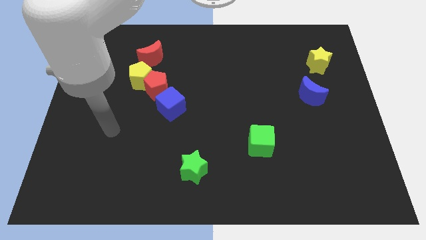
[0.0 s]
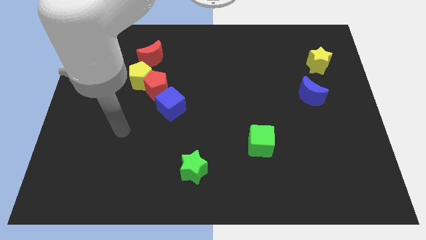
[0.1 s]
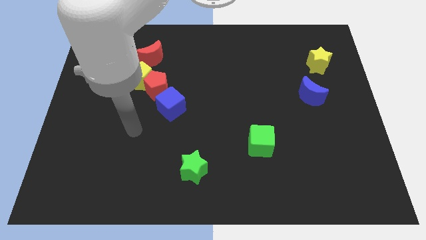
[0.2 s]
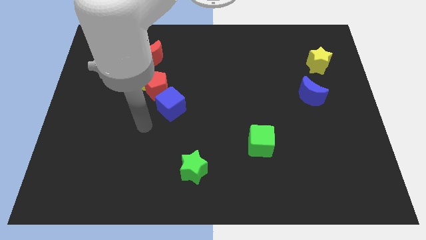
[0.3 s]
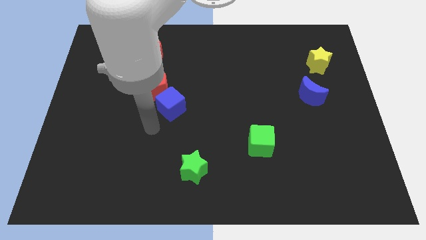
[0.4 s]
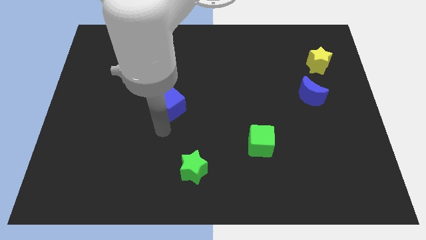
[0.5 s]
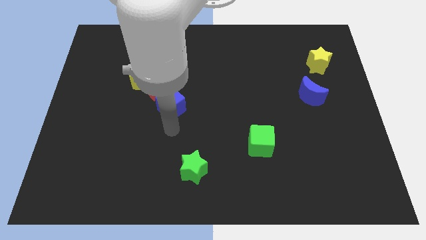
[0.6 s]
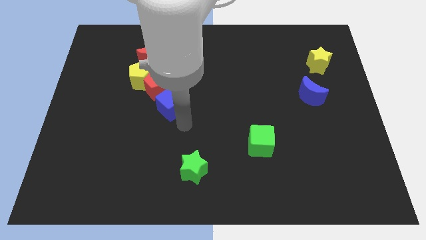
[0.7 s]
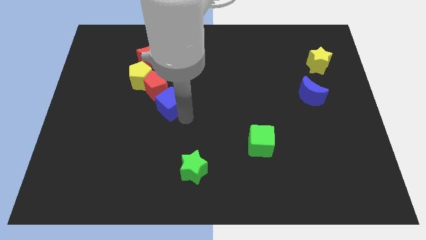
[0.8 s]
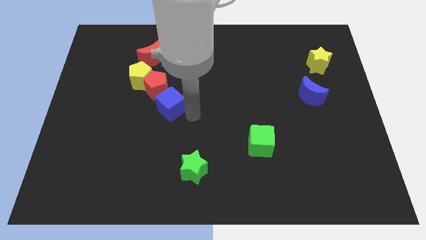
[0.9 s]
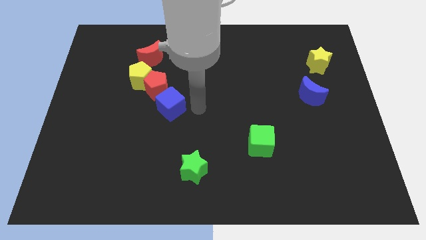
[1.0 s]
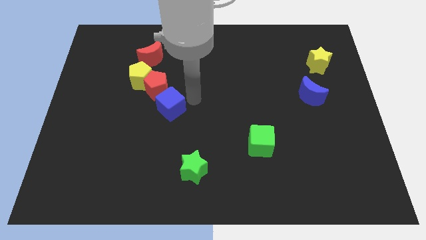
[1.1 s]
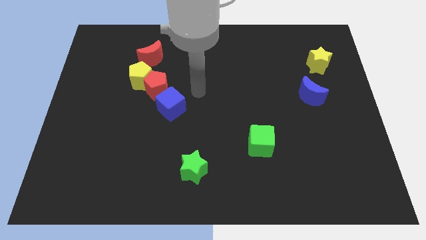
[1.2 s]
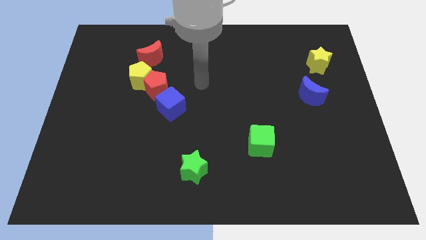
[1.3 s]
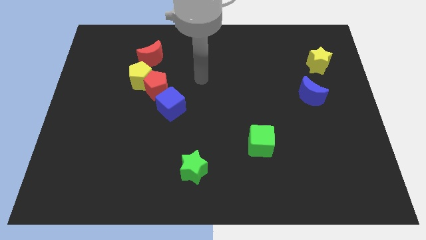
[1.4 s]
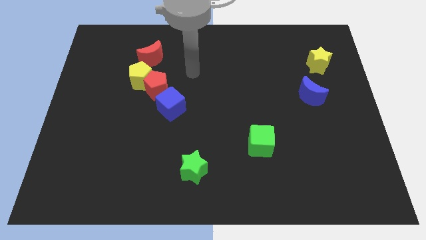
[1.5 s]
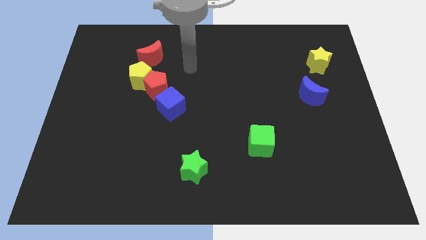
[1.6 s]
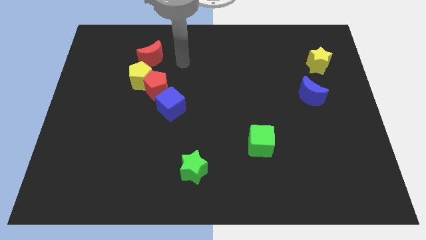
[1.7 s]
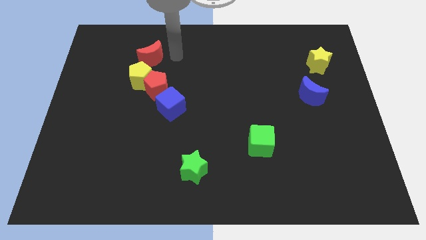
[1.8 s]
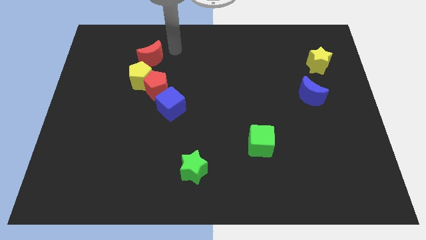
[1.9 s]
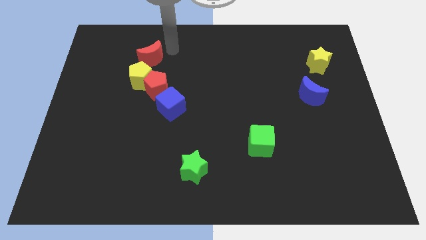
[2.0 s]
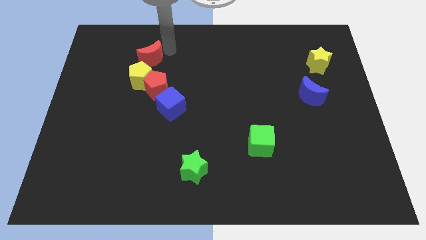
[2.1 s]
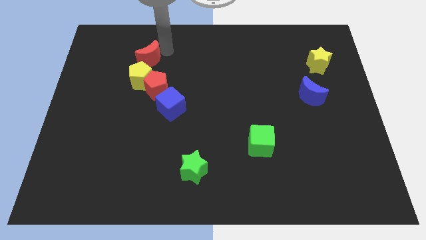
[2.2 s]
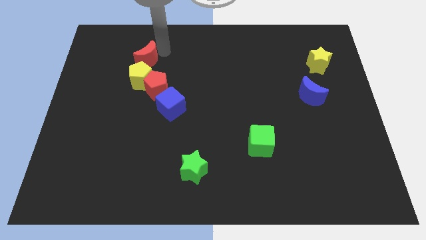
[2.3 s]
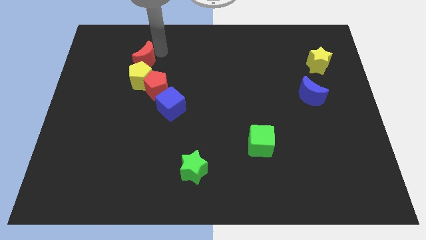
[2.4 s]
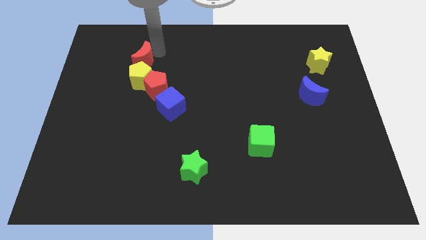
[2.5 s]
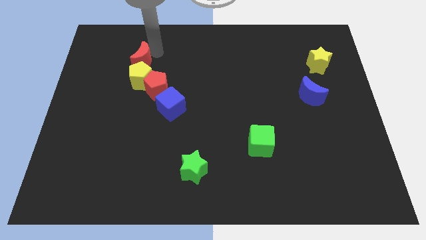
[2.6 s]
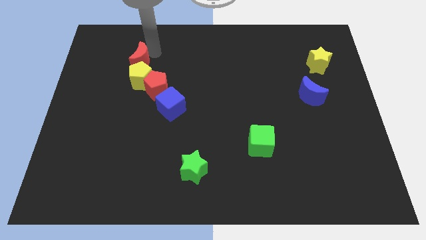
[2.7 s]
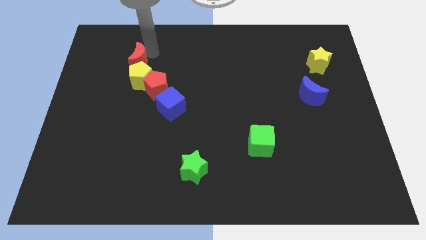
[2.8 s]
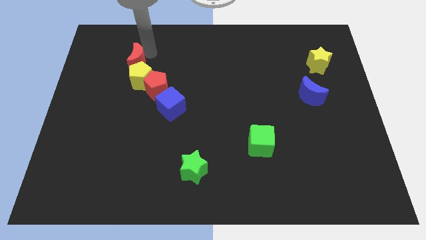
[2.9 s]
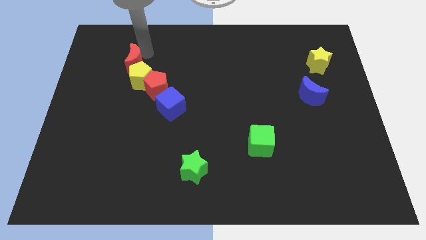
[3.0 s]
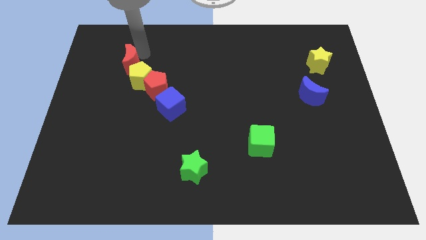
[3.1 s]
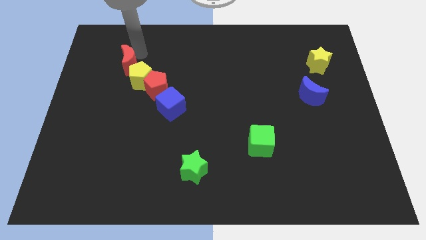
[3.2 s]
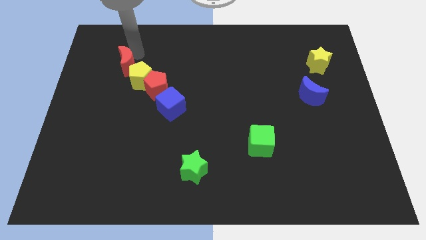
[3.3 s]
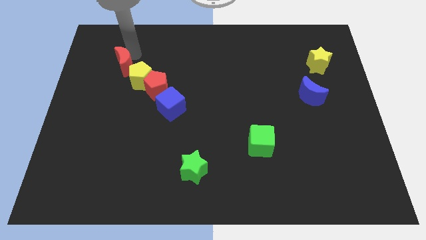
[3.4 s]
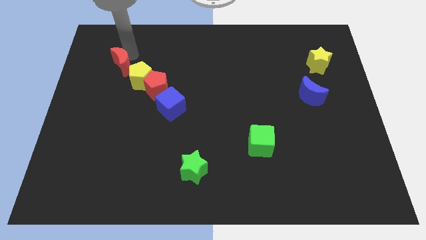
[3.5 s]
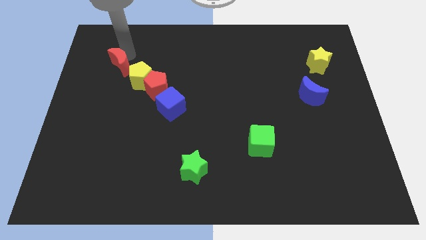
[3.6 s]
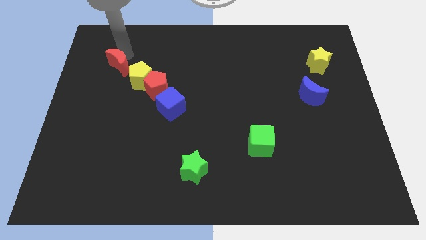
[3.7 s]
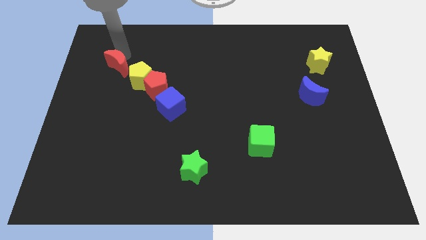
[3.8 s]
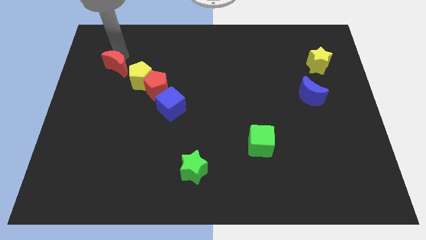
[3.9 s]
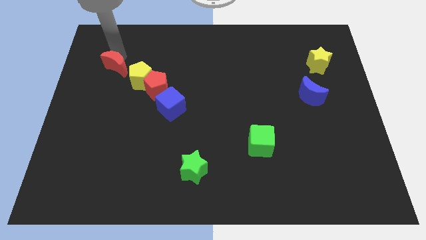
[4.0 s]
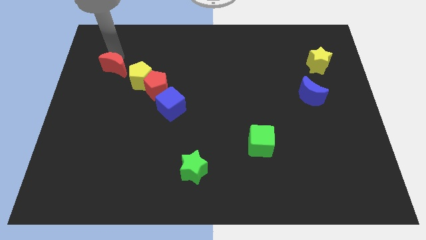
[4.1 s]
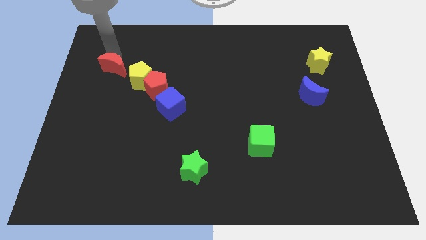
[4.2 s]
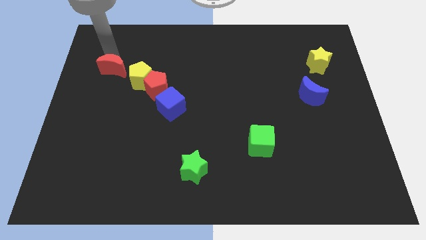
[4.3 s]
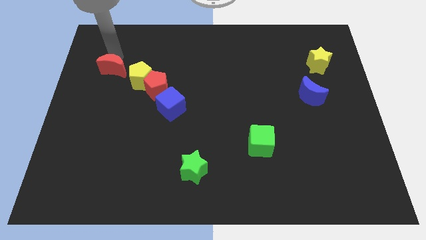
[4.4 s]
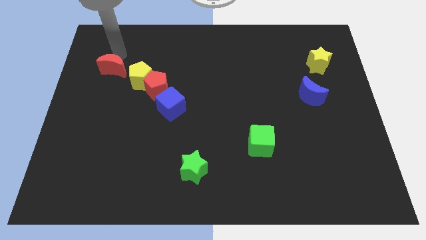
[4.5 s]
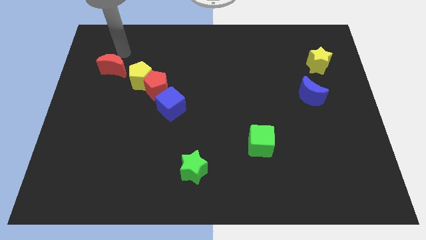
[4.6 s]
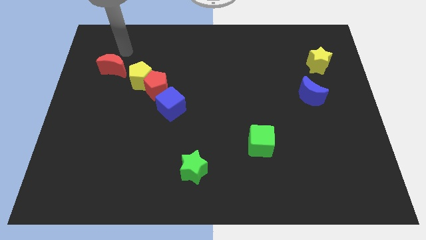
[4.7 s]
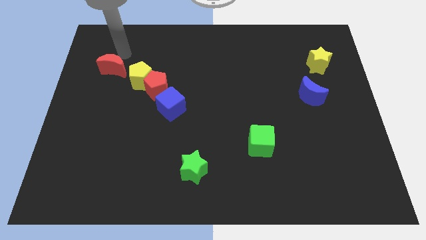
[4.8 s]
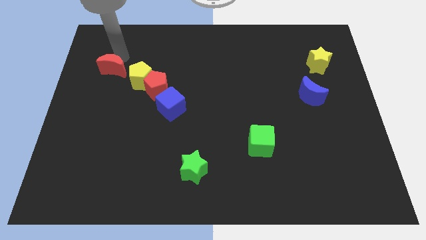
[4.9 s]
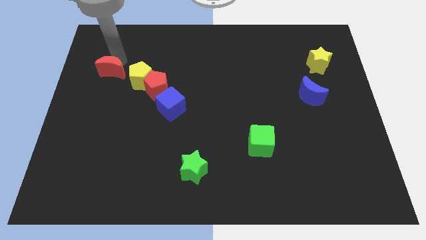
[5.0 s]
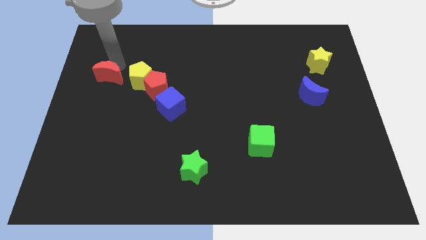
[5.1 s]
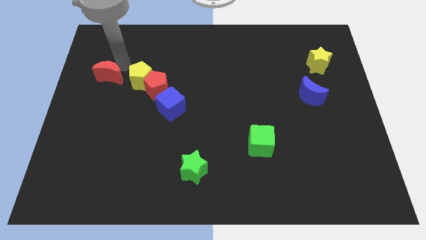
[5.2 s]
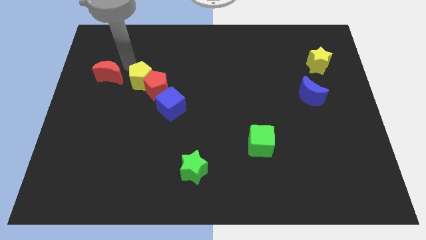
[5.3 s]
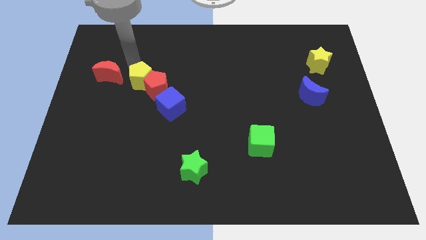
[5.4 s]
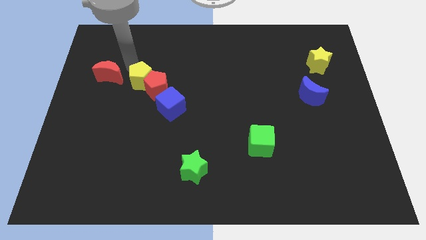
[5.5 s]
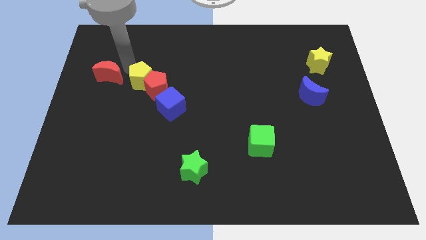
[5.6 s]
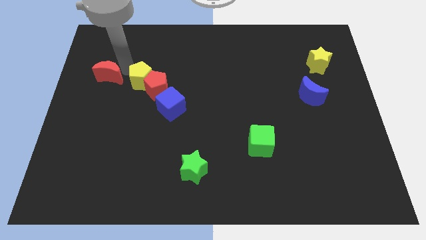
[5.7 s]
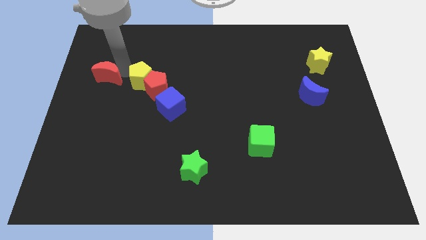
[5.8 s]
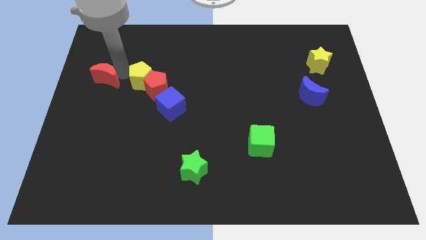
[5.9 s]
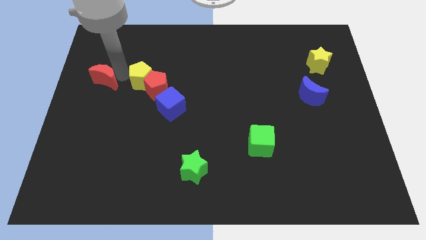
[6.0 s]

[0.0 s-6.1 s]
slide the red moon to the left side

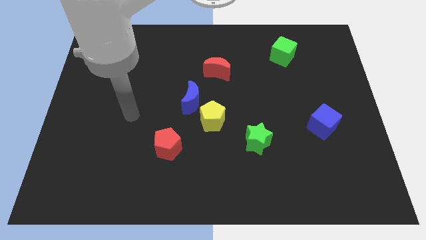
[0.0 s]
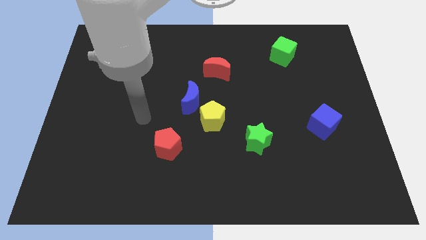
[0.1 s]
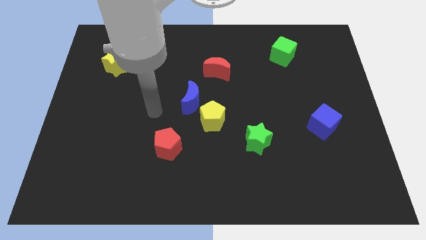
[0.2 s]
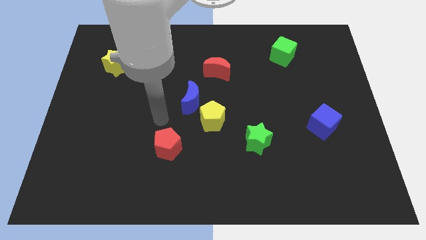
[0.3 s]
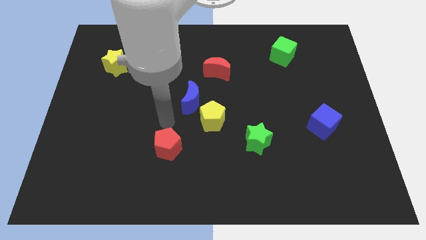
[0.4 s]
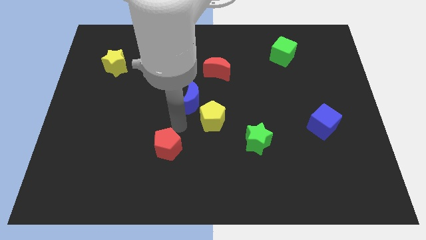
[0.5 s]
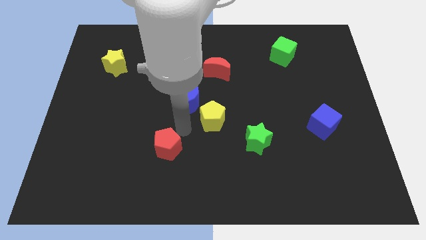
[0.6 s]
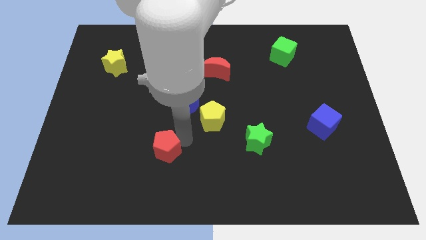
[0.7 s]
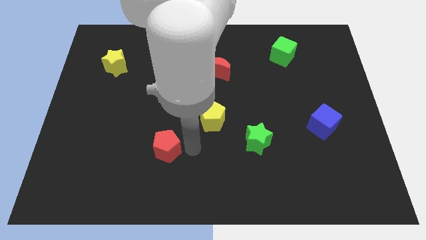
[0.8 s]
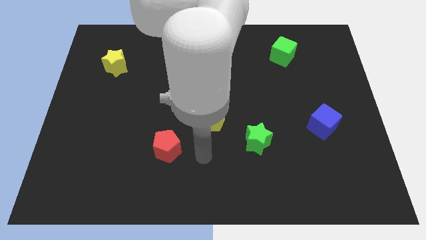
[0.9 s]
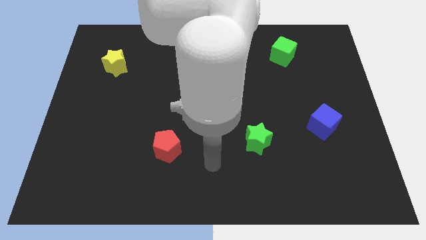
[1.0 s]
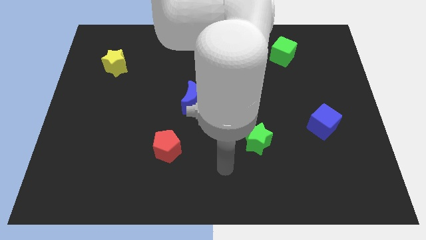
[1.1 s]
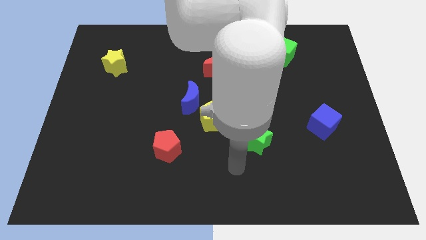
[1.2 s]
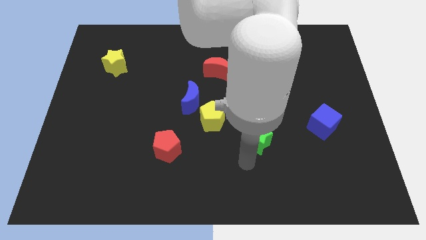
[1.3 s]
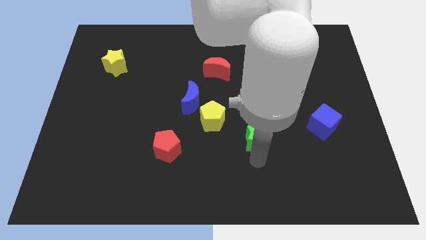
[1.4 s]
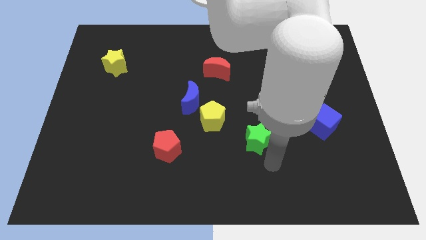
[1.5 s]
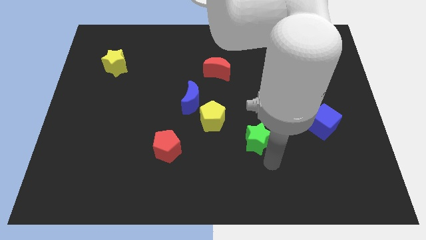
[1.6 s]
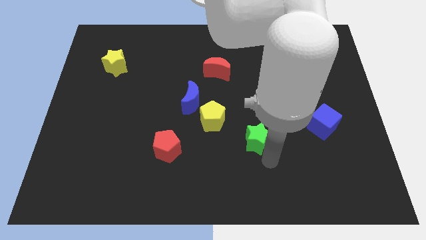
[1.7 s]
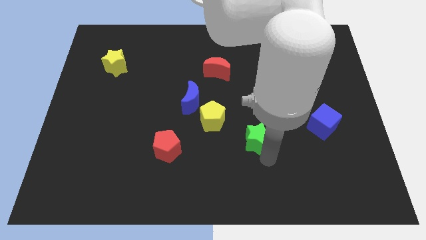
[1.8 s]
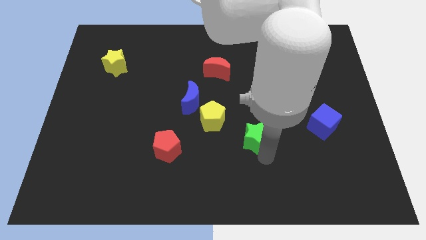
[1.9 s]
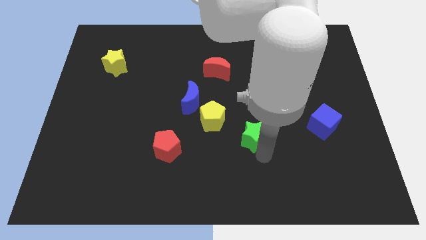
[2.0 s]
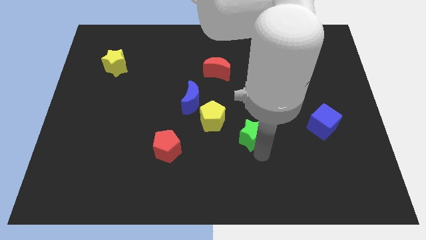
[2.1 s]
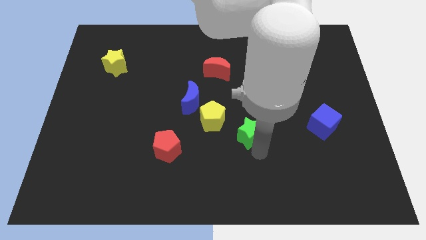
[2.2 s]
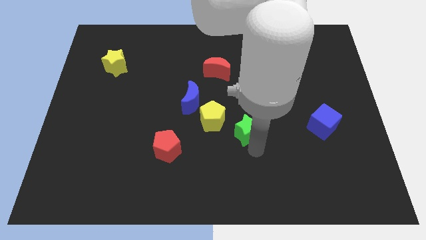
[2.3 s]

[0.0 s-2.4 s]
put the green star to the center
